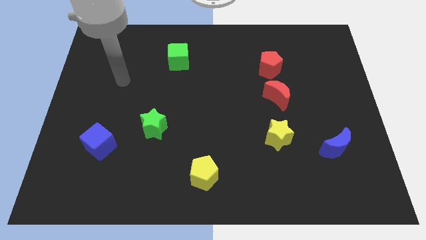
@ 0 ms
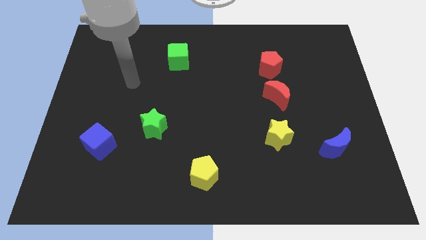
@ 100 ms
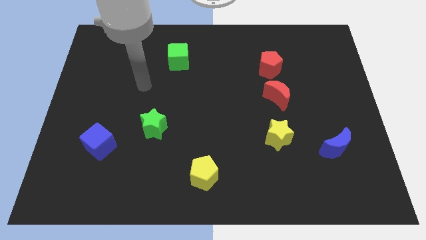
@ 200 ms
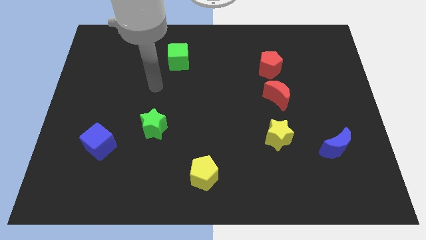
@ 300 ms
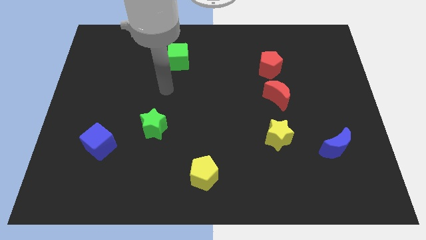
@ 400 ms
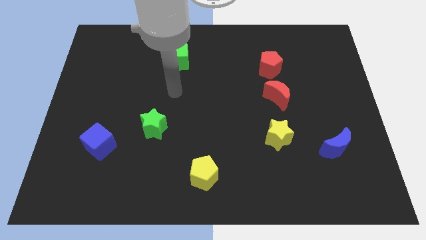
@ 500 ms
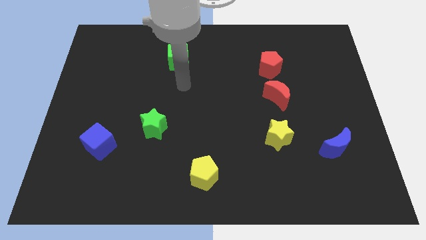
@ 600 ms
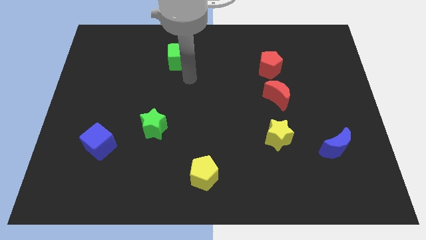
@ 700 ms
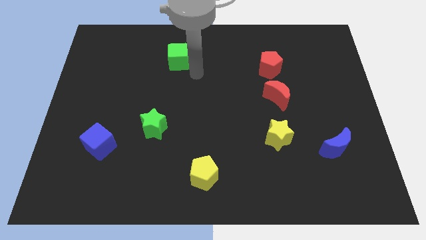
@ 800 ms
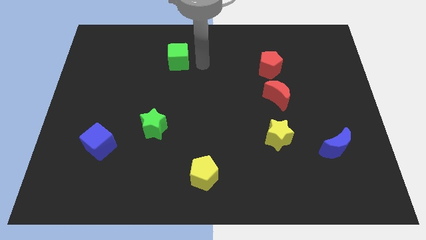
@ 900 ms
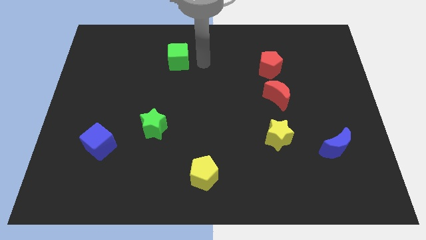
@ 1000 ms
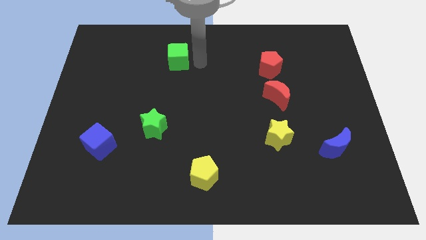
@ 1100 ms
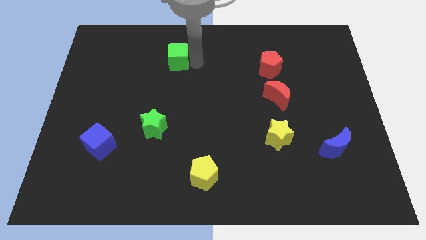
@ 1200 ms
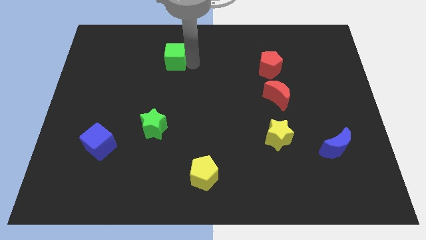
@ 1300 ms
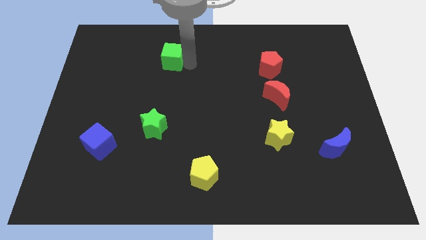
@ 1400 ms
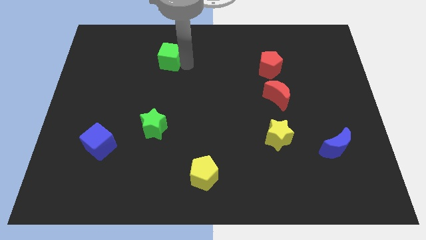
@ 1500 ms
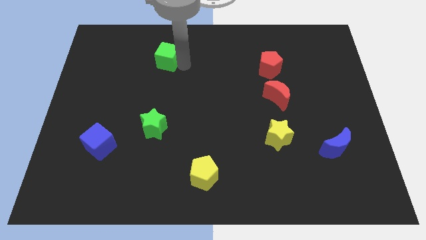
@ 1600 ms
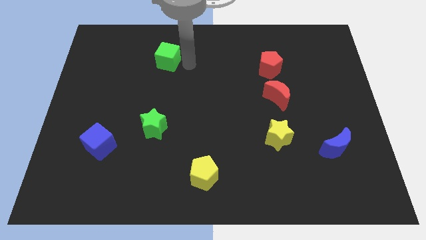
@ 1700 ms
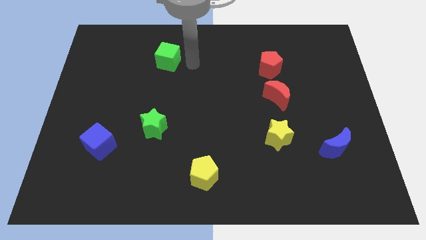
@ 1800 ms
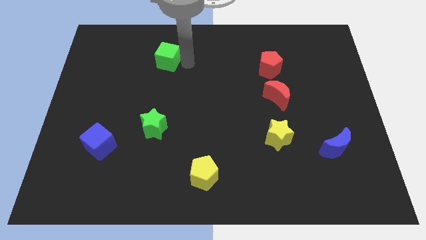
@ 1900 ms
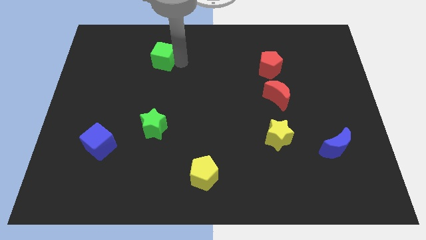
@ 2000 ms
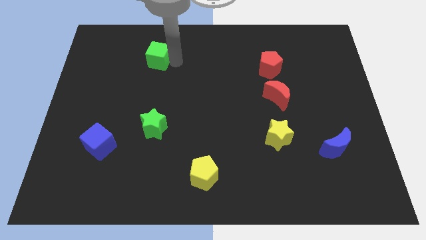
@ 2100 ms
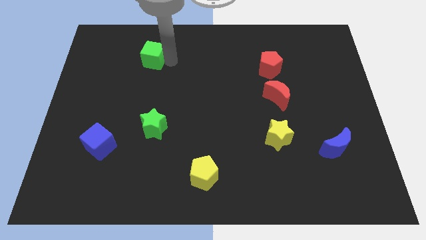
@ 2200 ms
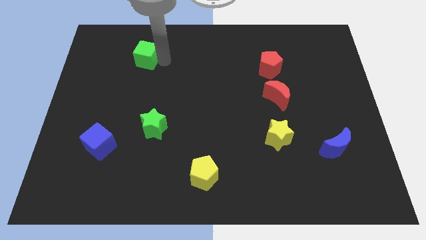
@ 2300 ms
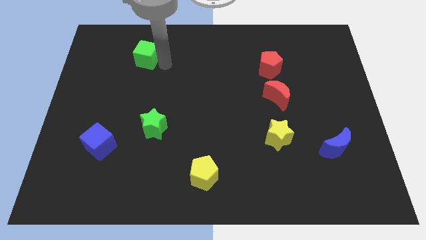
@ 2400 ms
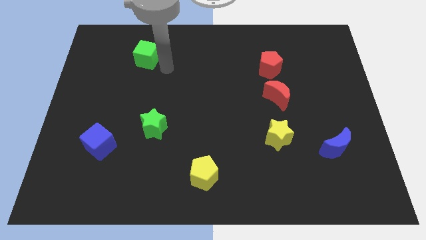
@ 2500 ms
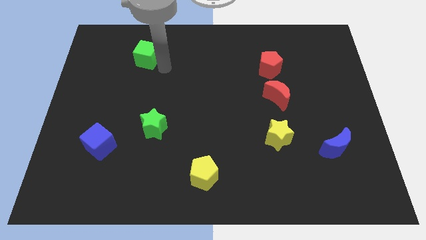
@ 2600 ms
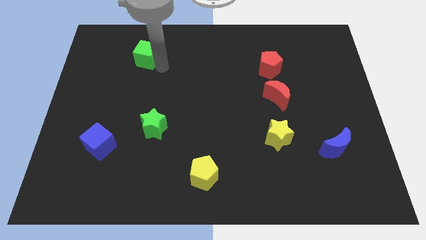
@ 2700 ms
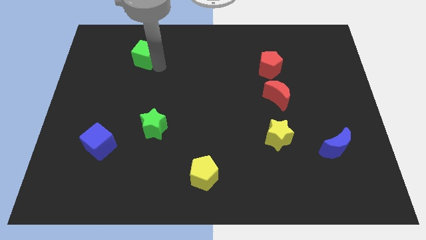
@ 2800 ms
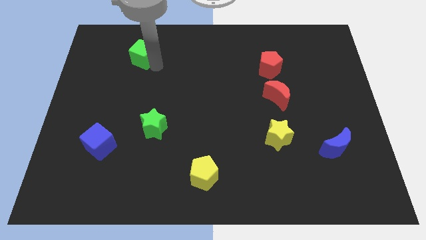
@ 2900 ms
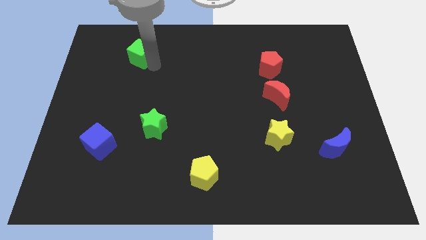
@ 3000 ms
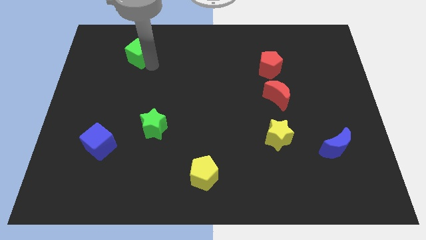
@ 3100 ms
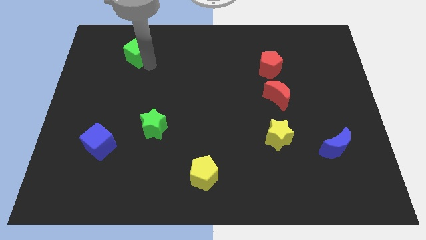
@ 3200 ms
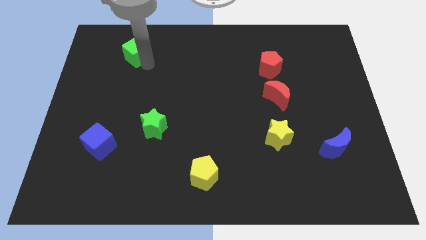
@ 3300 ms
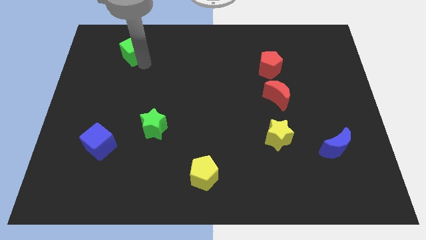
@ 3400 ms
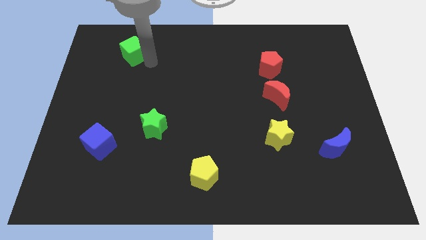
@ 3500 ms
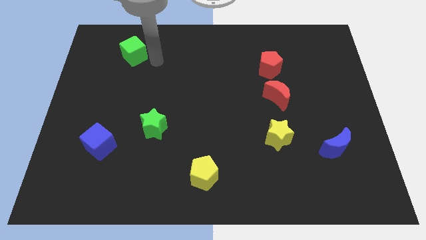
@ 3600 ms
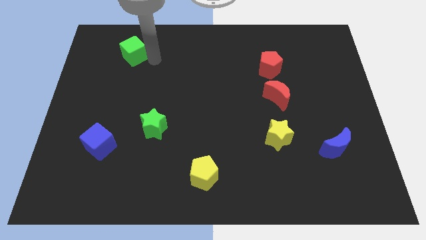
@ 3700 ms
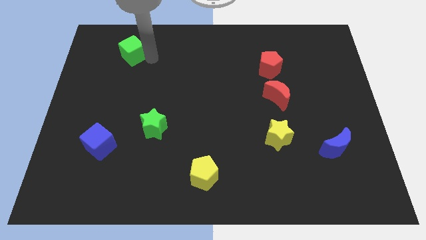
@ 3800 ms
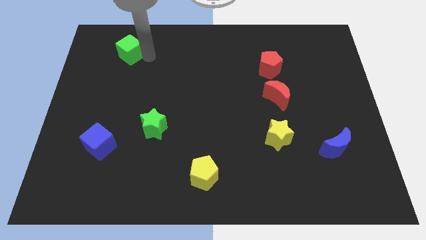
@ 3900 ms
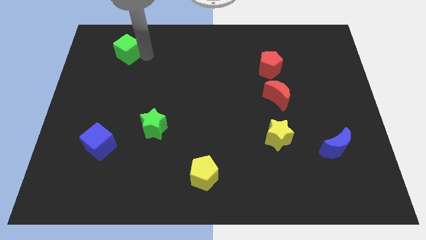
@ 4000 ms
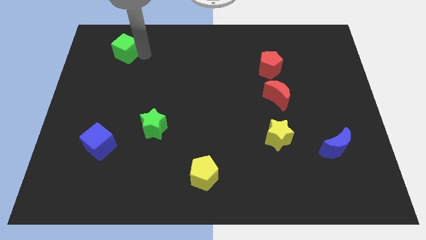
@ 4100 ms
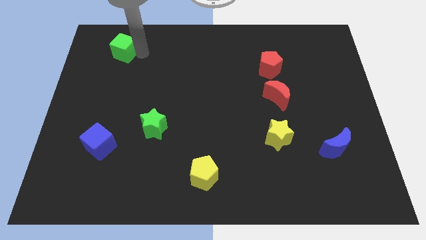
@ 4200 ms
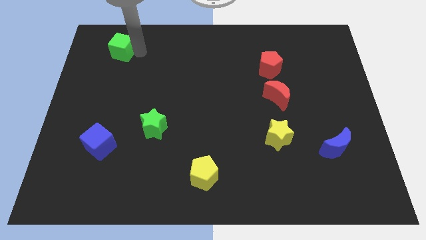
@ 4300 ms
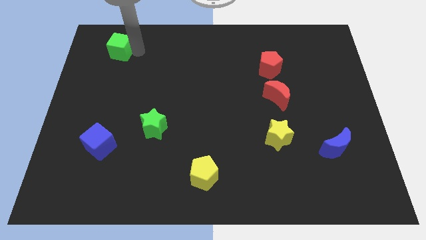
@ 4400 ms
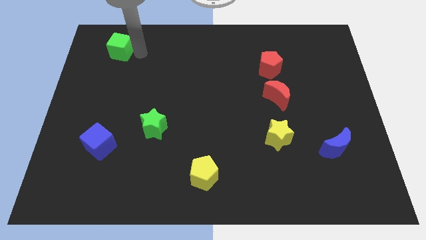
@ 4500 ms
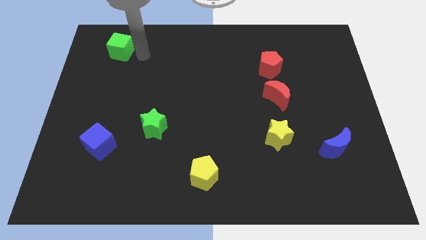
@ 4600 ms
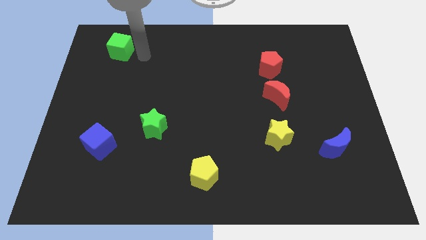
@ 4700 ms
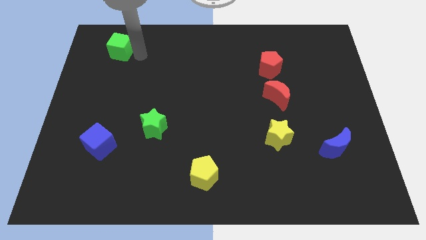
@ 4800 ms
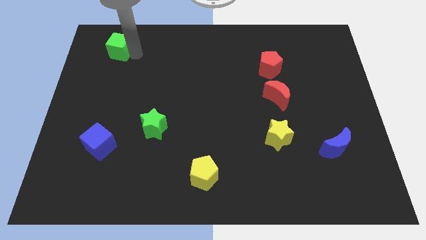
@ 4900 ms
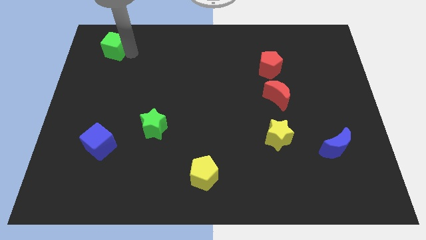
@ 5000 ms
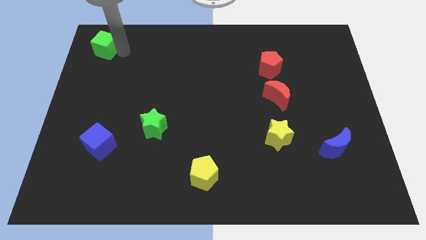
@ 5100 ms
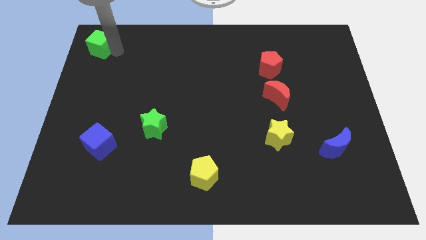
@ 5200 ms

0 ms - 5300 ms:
put the green cube to the upper left corner

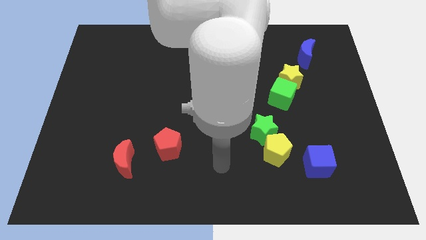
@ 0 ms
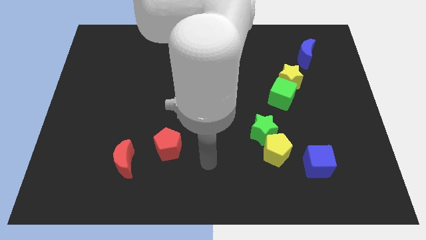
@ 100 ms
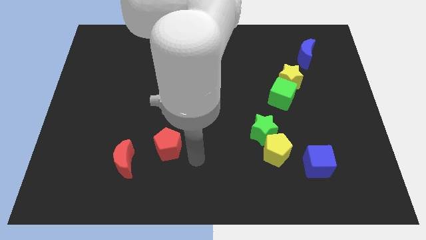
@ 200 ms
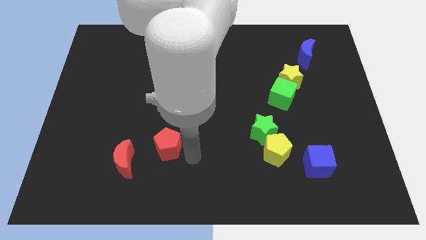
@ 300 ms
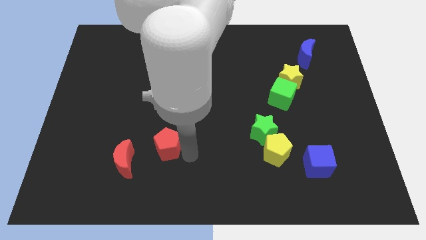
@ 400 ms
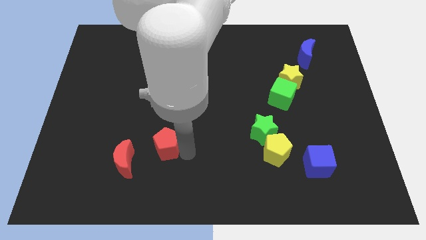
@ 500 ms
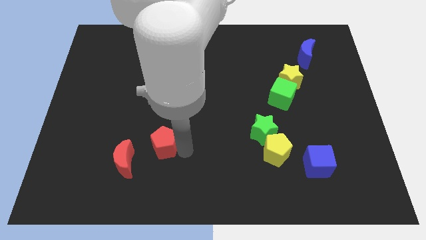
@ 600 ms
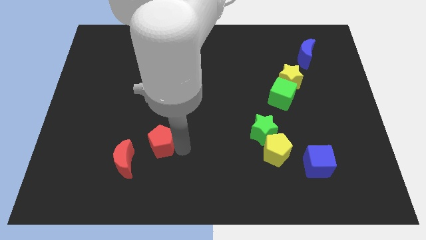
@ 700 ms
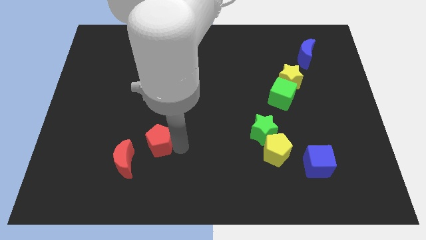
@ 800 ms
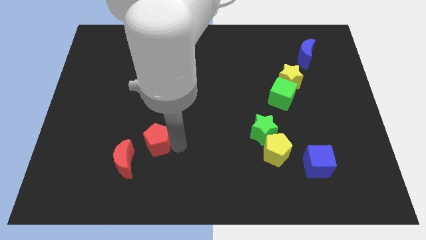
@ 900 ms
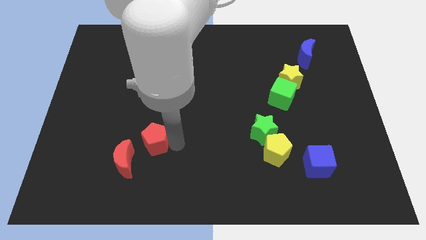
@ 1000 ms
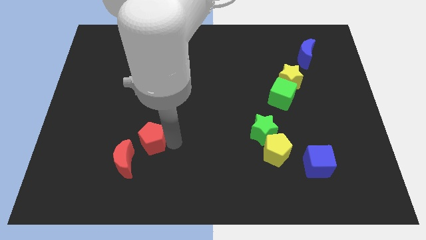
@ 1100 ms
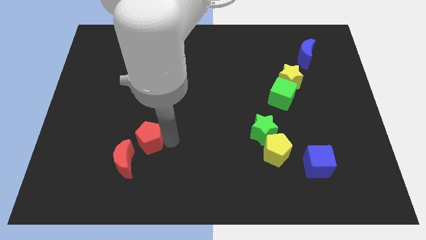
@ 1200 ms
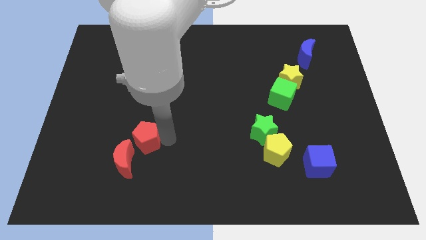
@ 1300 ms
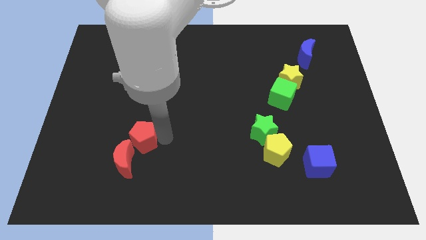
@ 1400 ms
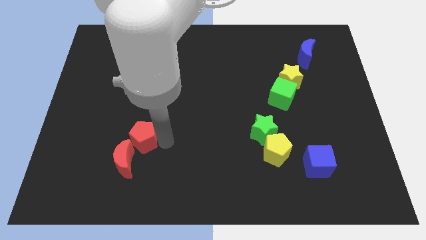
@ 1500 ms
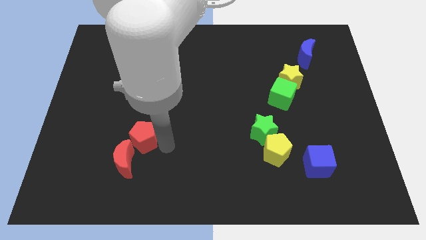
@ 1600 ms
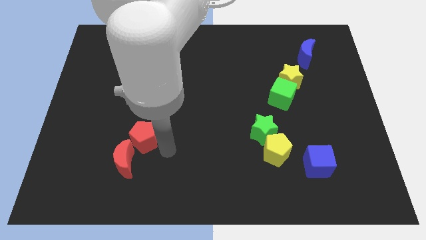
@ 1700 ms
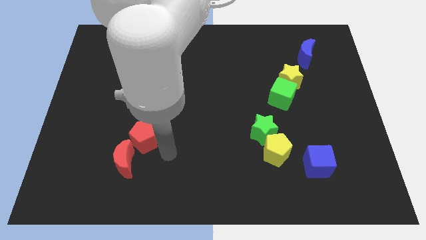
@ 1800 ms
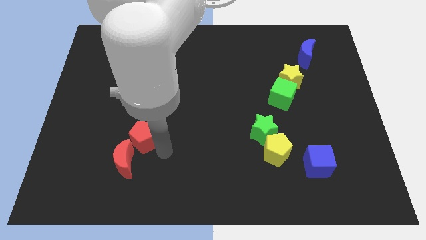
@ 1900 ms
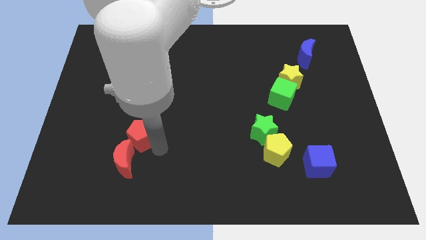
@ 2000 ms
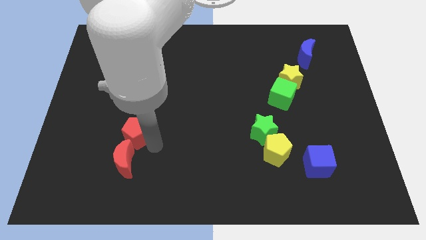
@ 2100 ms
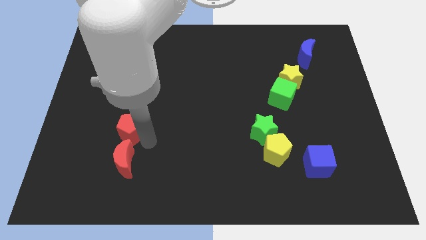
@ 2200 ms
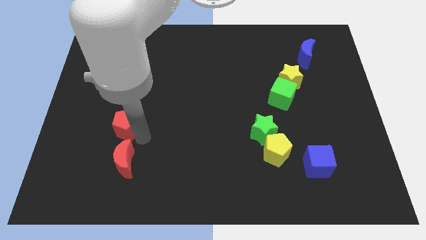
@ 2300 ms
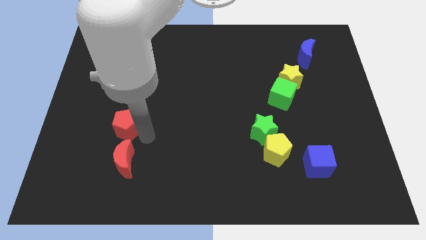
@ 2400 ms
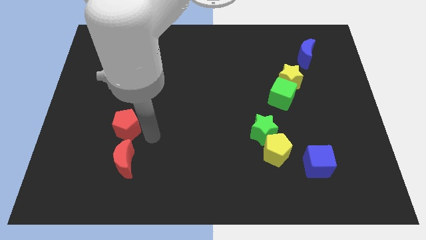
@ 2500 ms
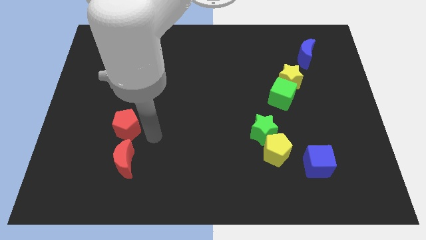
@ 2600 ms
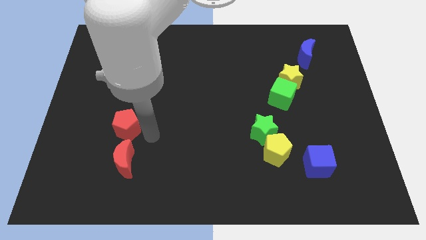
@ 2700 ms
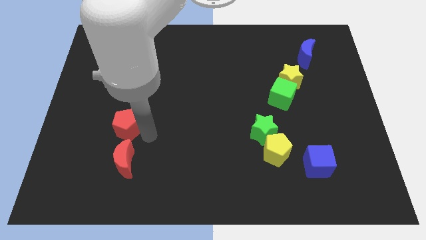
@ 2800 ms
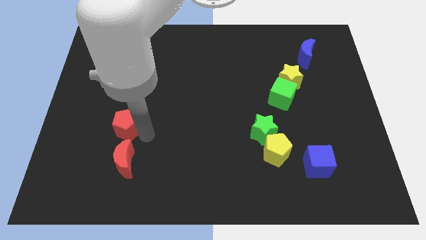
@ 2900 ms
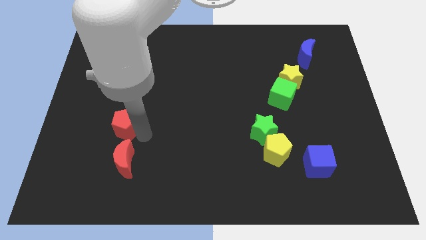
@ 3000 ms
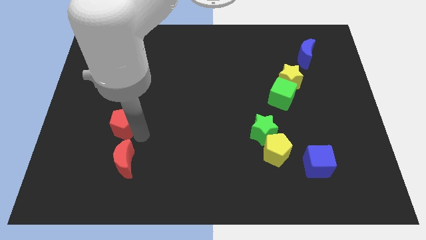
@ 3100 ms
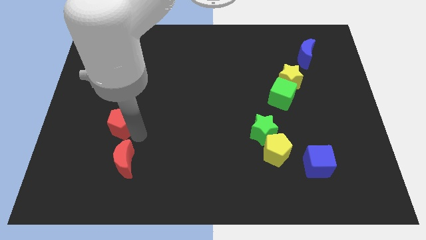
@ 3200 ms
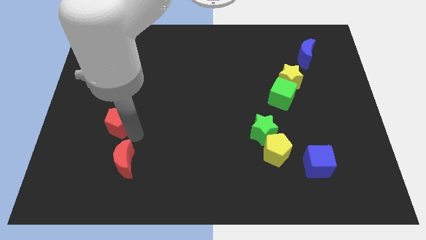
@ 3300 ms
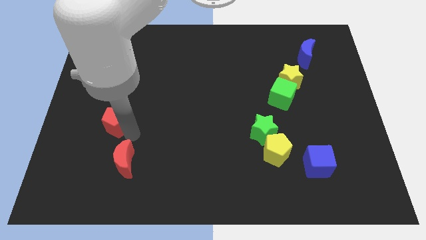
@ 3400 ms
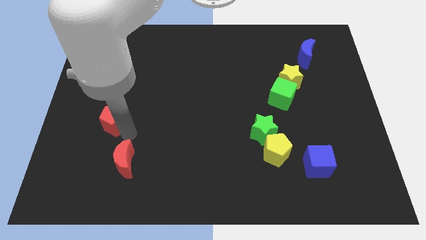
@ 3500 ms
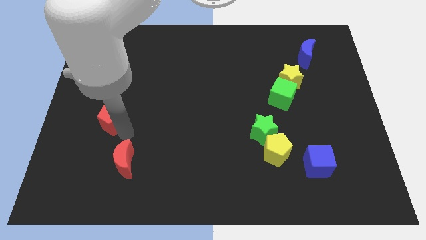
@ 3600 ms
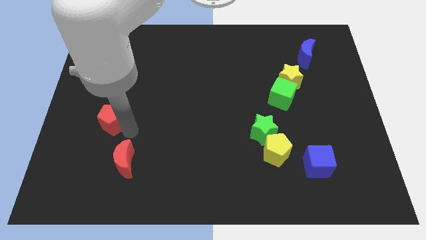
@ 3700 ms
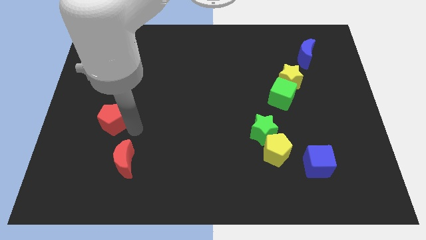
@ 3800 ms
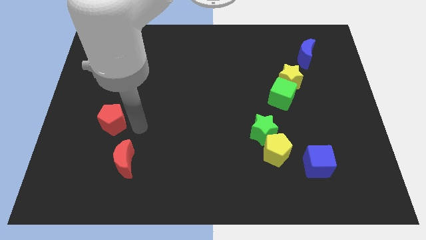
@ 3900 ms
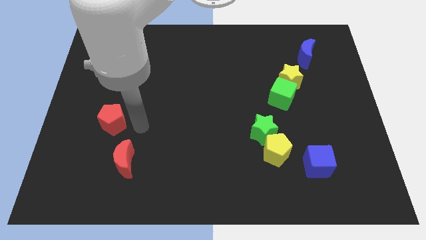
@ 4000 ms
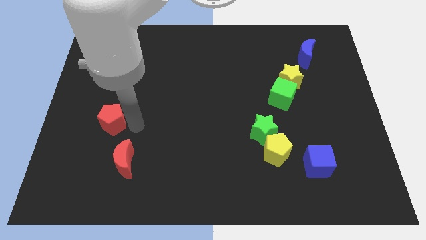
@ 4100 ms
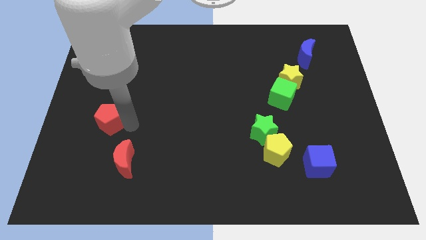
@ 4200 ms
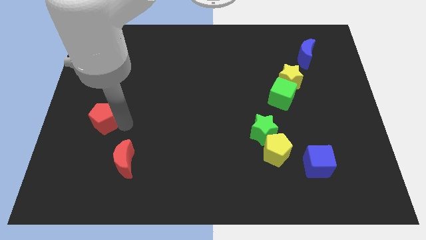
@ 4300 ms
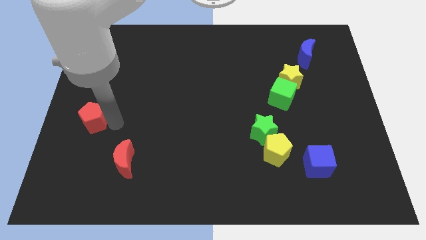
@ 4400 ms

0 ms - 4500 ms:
push the red pentagon to the center left
